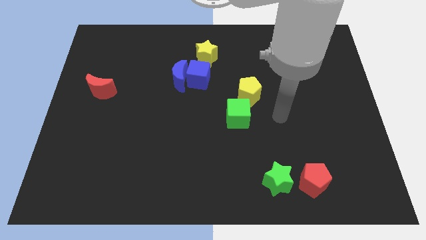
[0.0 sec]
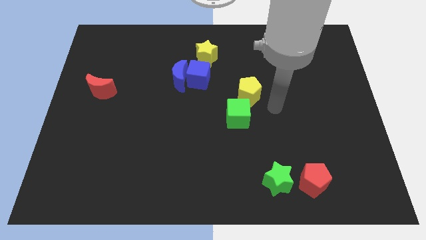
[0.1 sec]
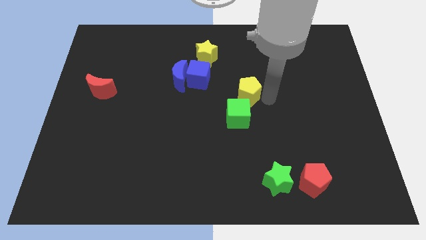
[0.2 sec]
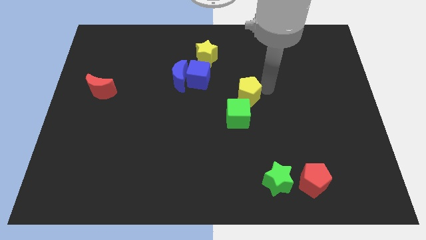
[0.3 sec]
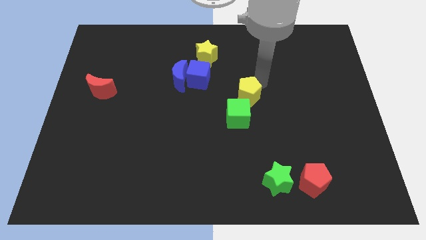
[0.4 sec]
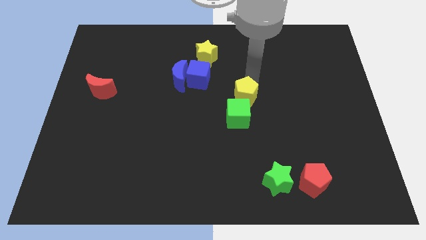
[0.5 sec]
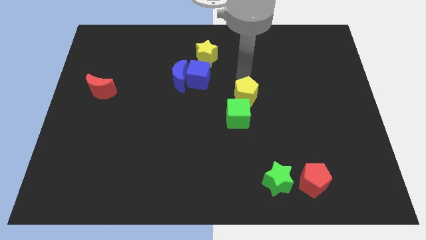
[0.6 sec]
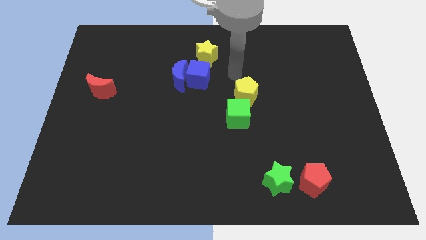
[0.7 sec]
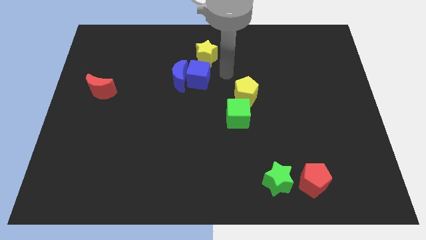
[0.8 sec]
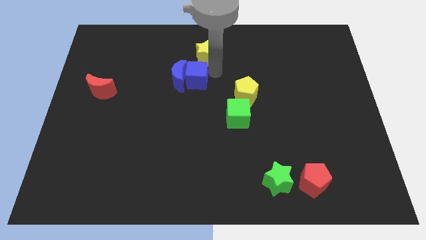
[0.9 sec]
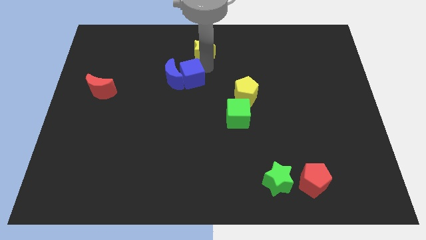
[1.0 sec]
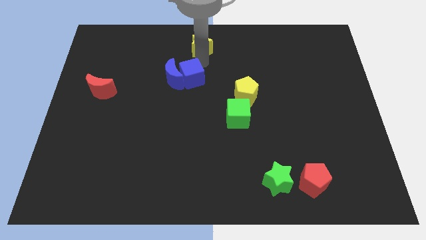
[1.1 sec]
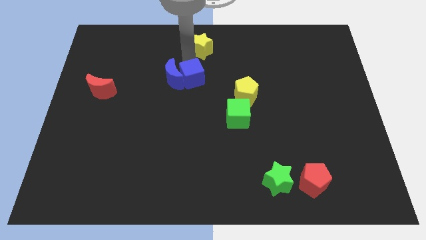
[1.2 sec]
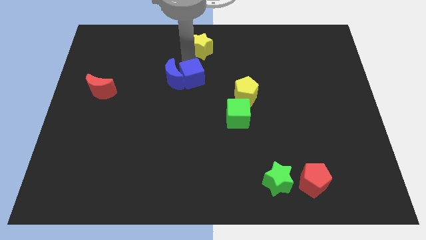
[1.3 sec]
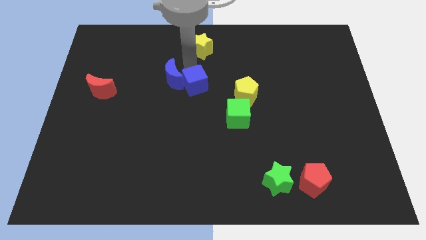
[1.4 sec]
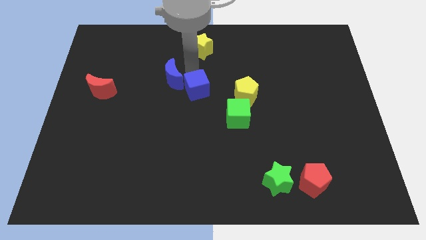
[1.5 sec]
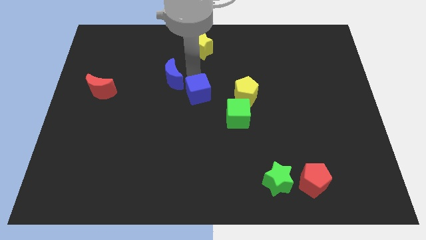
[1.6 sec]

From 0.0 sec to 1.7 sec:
pull the blue cube apart from the blue moon and yellow star

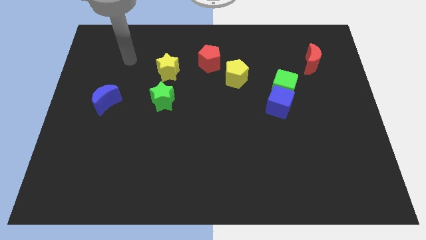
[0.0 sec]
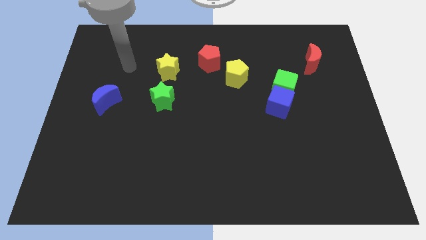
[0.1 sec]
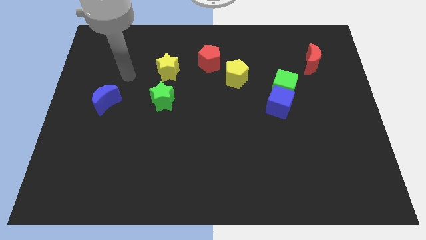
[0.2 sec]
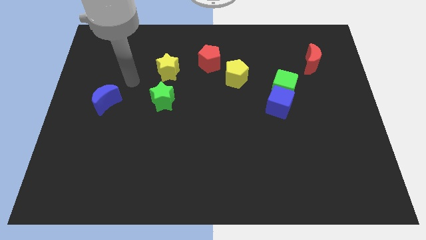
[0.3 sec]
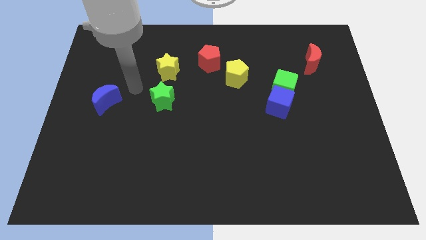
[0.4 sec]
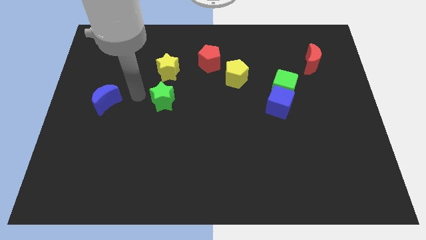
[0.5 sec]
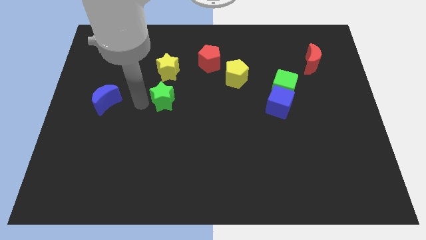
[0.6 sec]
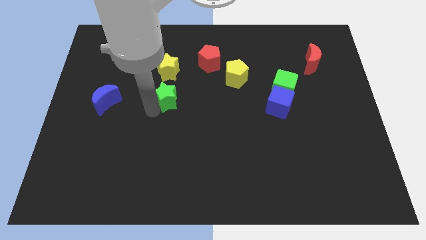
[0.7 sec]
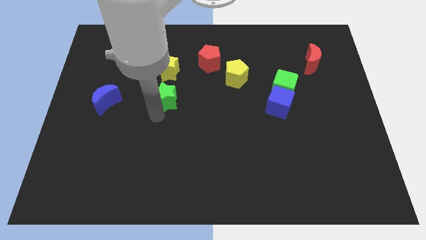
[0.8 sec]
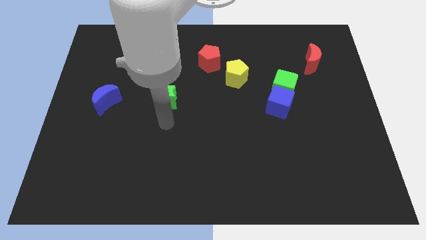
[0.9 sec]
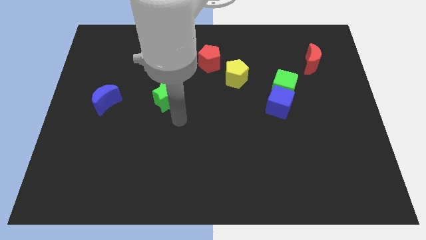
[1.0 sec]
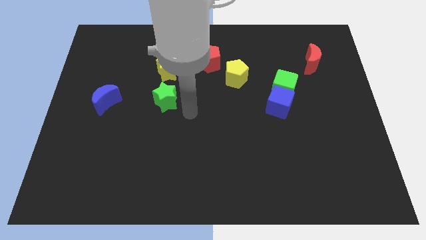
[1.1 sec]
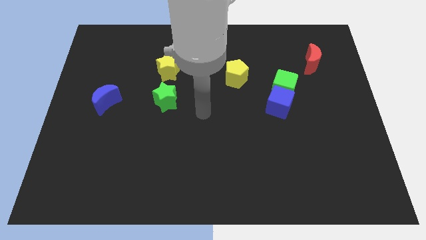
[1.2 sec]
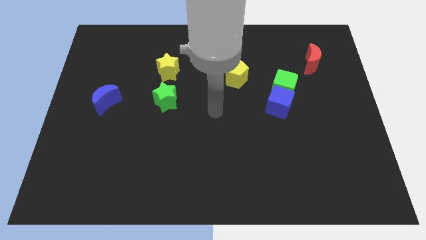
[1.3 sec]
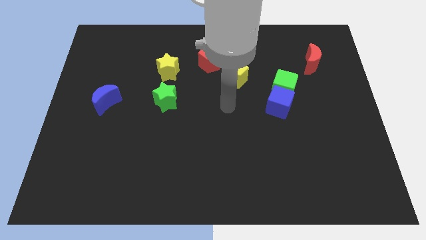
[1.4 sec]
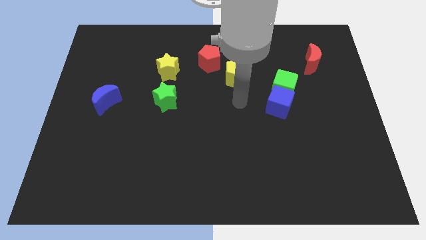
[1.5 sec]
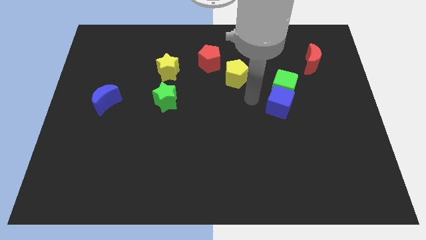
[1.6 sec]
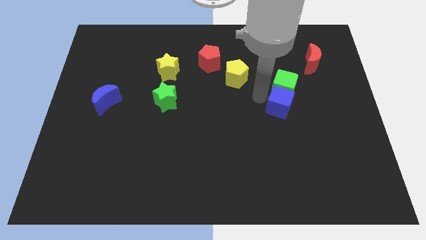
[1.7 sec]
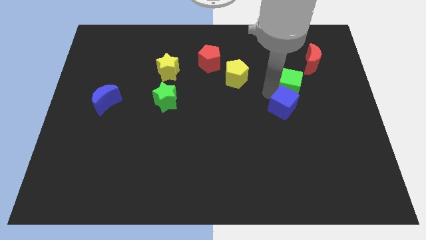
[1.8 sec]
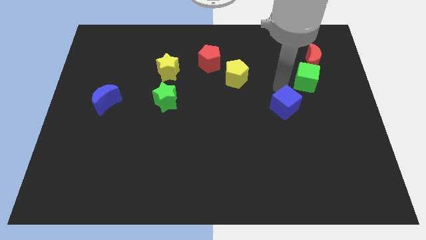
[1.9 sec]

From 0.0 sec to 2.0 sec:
pull the blue cube apart from the green cube

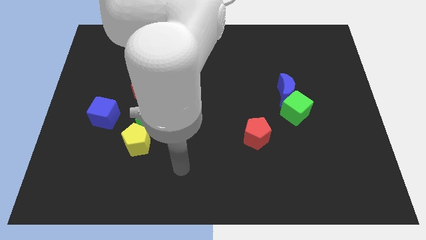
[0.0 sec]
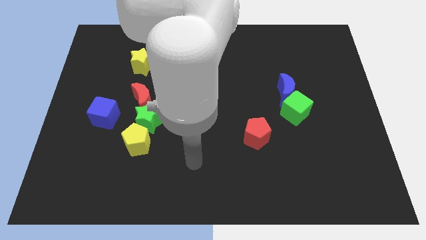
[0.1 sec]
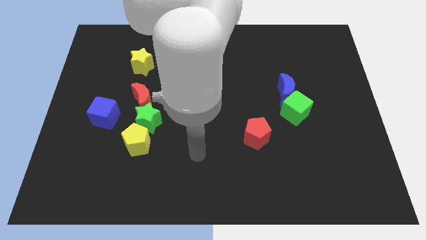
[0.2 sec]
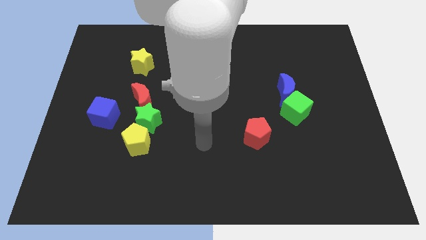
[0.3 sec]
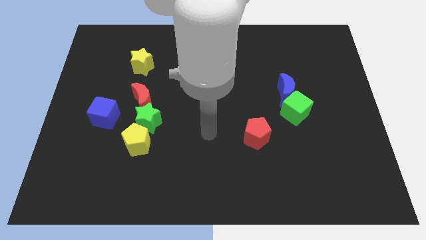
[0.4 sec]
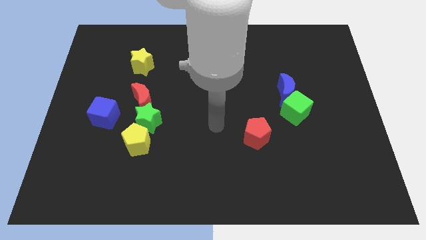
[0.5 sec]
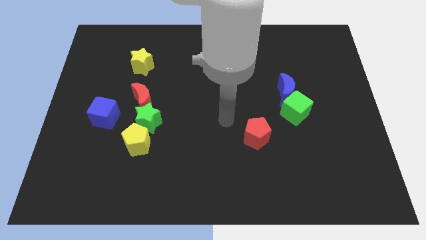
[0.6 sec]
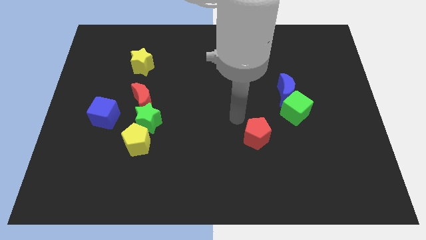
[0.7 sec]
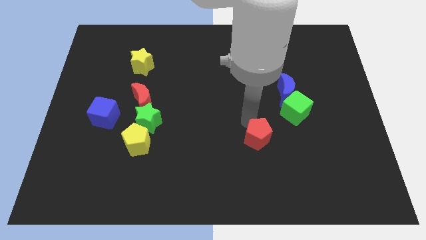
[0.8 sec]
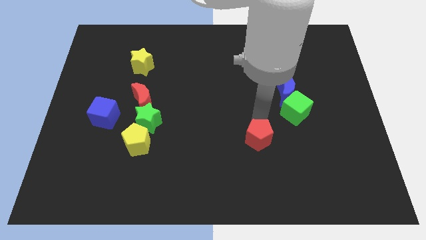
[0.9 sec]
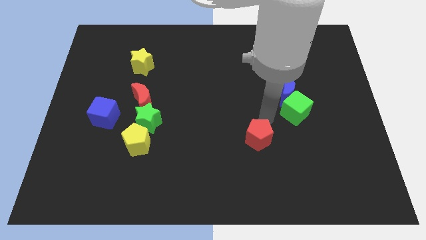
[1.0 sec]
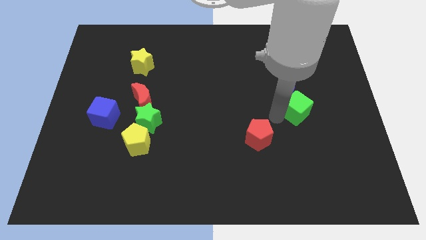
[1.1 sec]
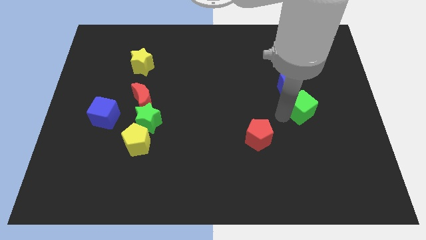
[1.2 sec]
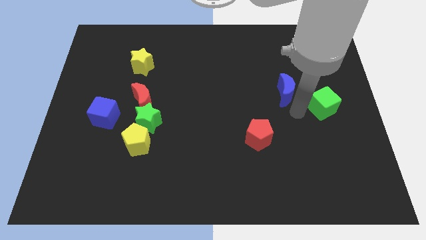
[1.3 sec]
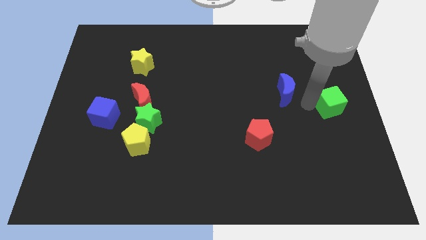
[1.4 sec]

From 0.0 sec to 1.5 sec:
move the blue moon away from the green cube

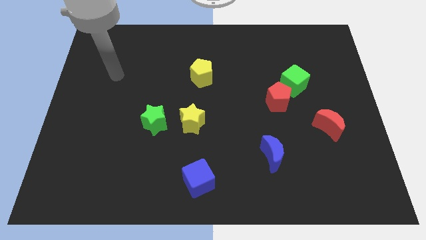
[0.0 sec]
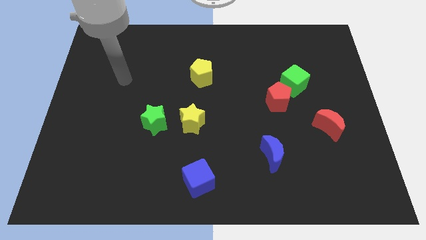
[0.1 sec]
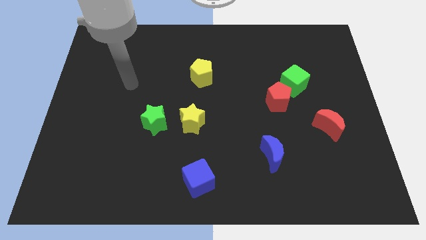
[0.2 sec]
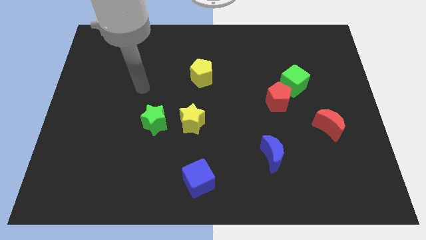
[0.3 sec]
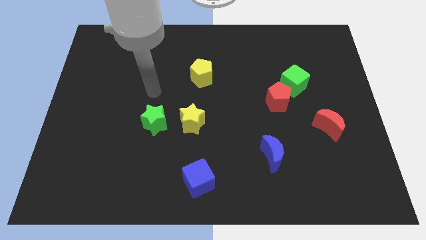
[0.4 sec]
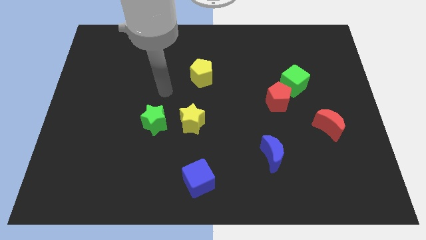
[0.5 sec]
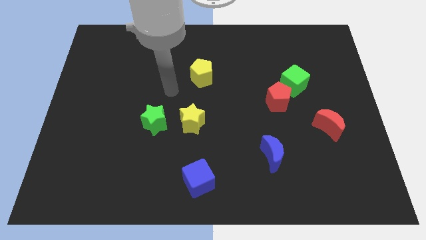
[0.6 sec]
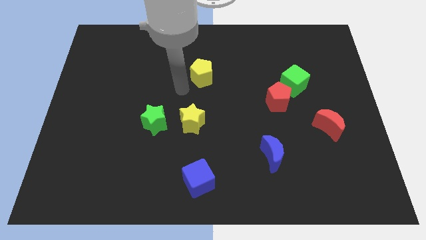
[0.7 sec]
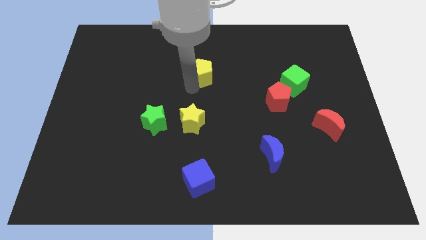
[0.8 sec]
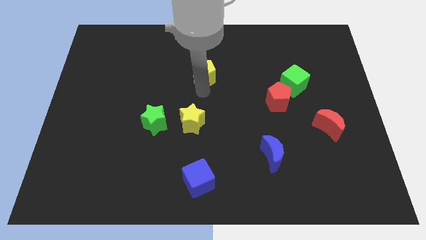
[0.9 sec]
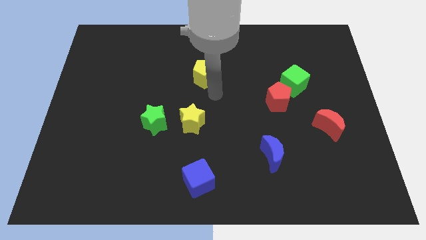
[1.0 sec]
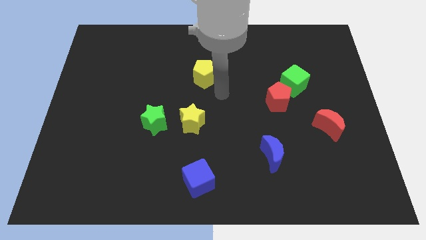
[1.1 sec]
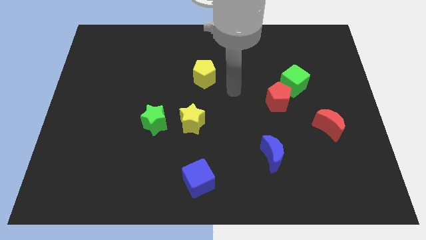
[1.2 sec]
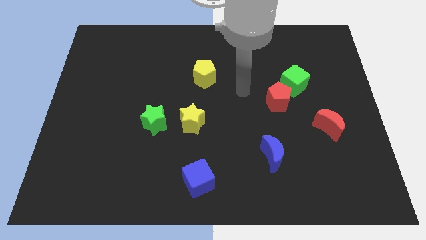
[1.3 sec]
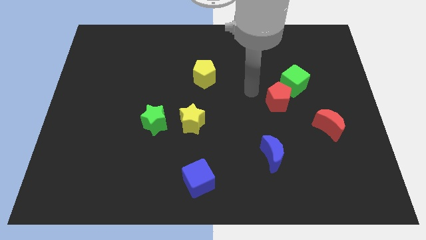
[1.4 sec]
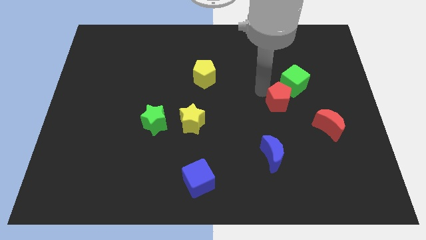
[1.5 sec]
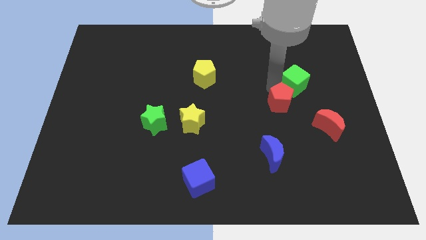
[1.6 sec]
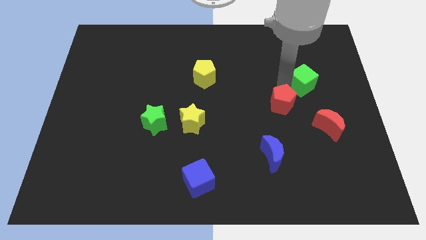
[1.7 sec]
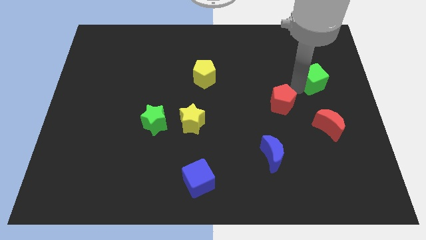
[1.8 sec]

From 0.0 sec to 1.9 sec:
move the red pentagon away from the green cube

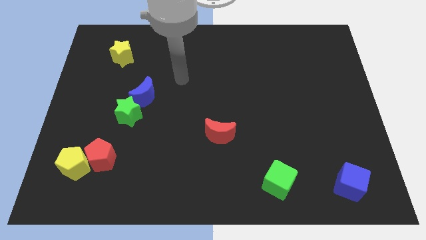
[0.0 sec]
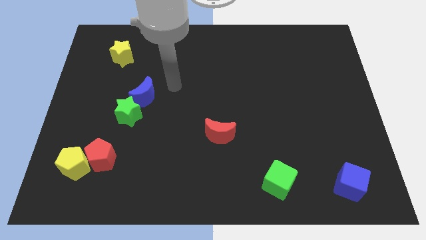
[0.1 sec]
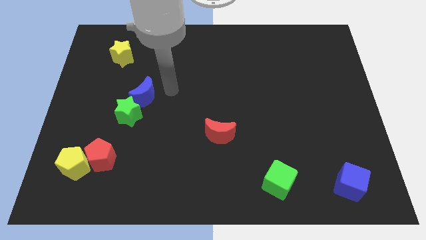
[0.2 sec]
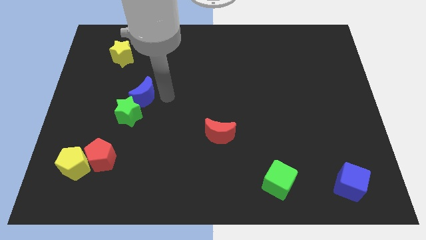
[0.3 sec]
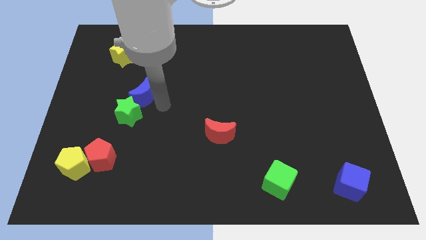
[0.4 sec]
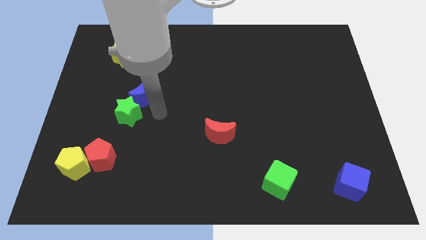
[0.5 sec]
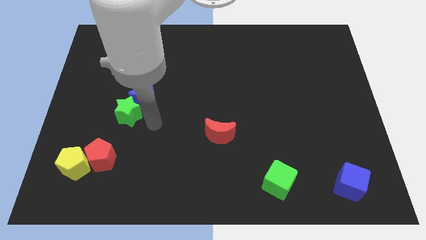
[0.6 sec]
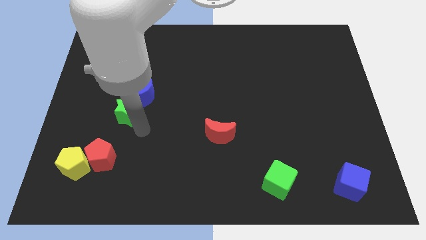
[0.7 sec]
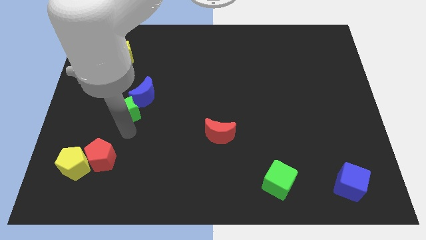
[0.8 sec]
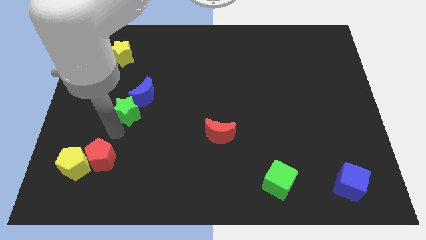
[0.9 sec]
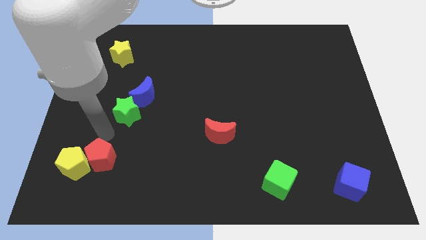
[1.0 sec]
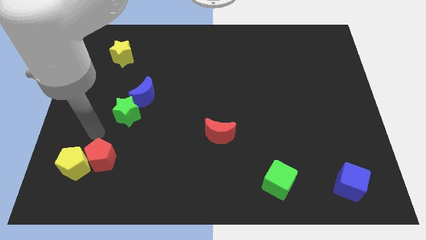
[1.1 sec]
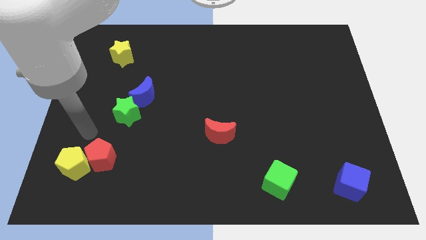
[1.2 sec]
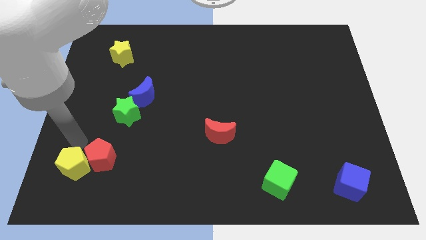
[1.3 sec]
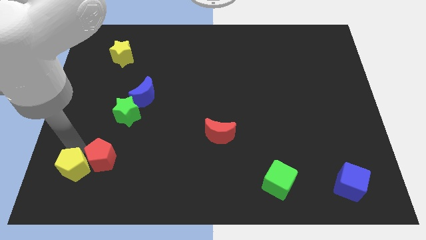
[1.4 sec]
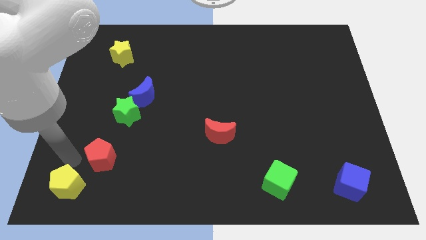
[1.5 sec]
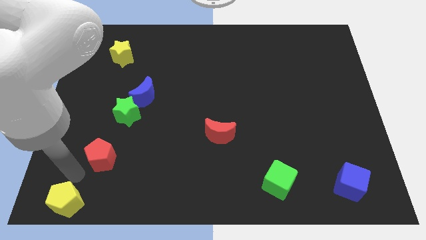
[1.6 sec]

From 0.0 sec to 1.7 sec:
separate the red pentagon from the yellow pentagon

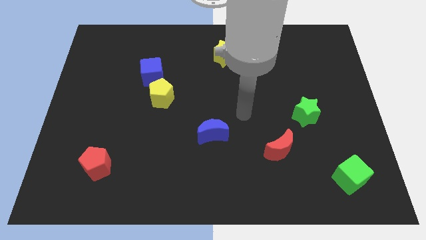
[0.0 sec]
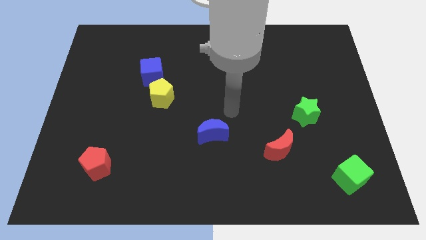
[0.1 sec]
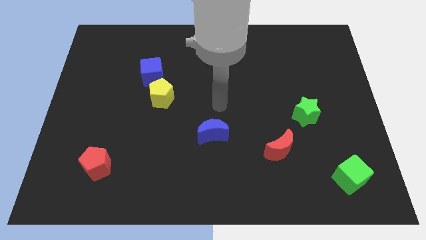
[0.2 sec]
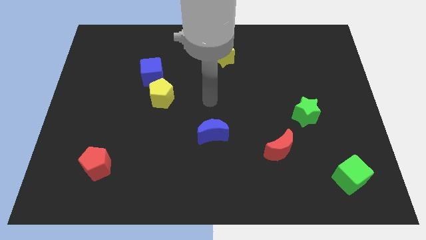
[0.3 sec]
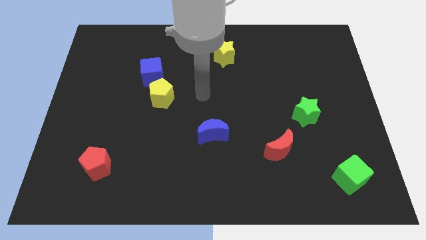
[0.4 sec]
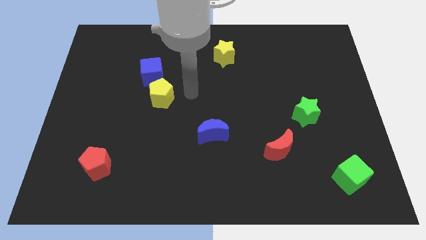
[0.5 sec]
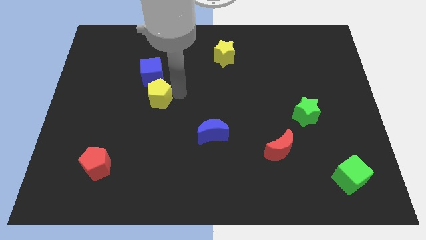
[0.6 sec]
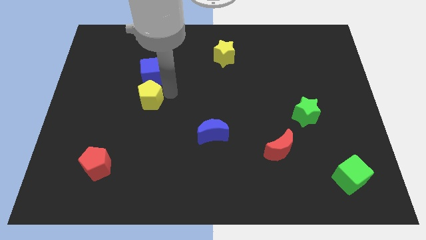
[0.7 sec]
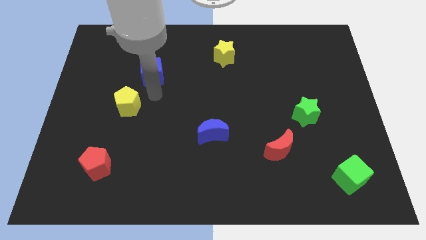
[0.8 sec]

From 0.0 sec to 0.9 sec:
move the blue cube away from the yellow pentagon
